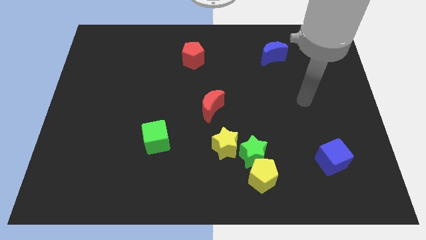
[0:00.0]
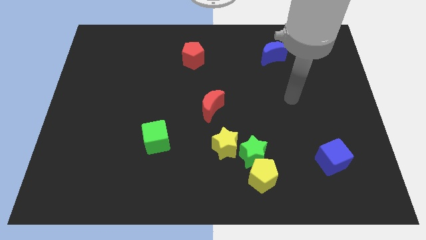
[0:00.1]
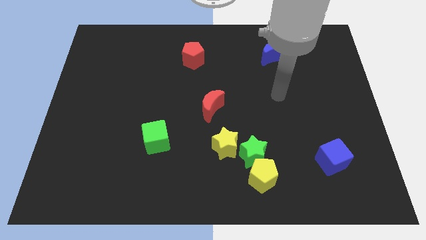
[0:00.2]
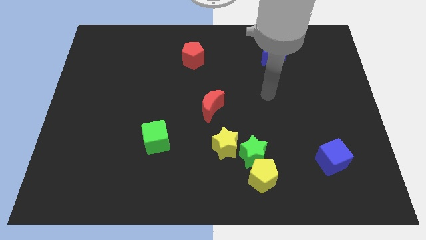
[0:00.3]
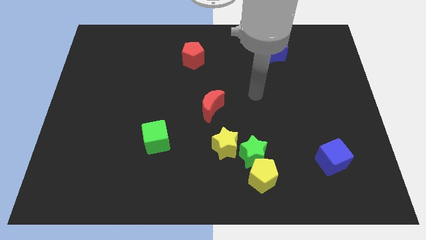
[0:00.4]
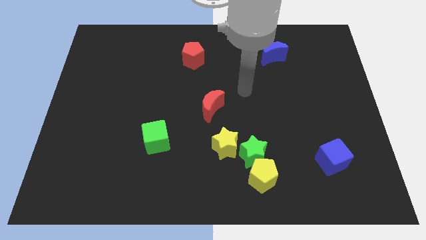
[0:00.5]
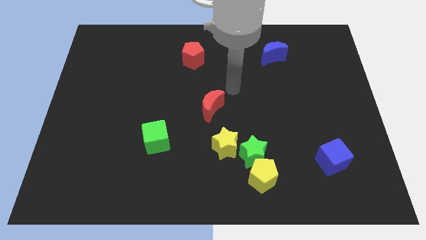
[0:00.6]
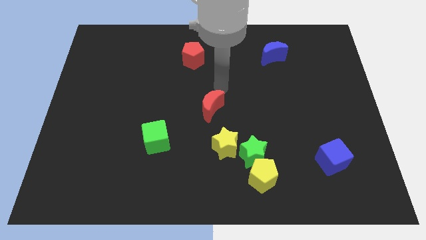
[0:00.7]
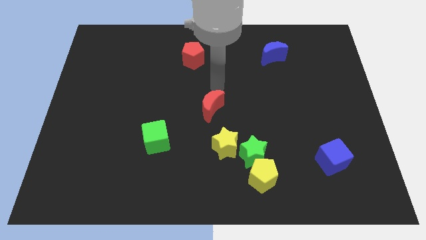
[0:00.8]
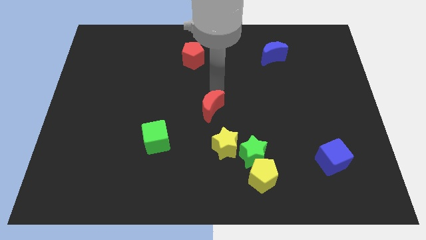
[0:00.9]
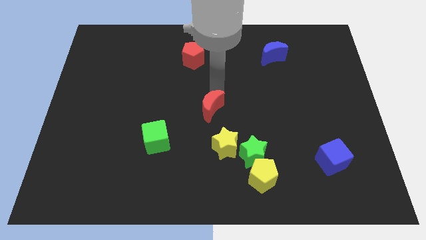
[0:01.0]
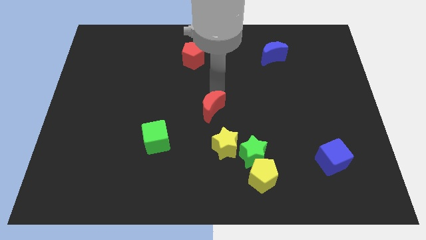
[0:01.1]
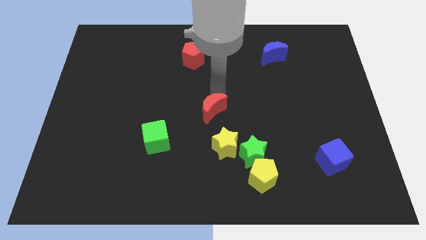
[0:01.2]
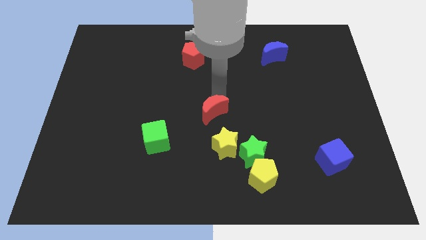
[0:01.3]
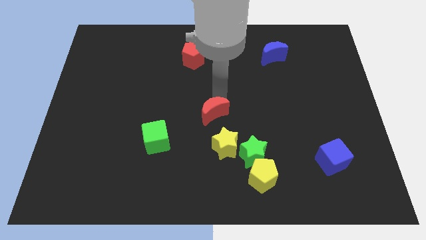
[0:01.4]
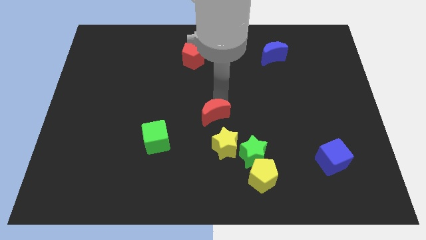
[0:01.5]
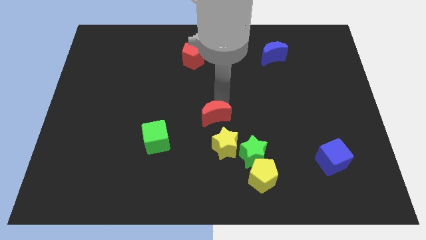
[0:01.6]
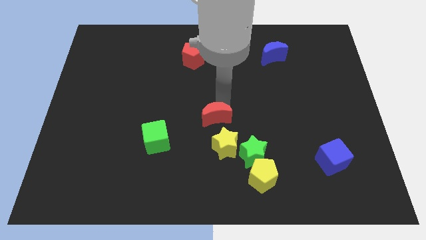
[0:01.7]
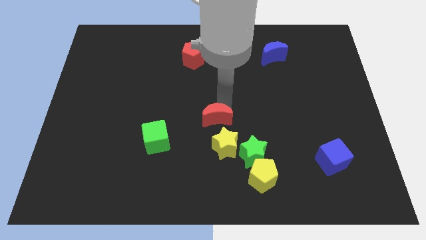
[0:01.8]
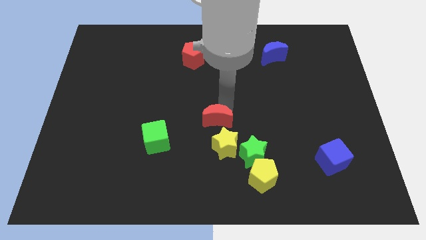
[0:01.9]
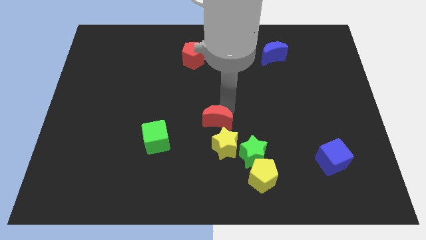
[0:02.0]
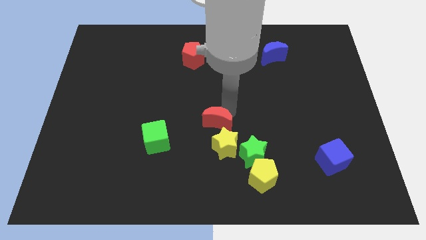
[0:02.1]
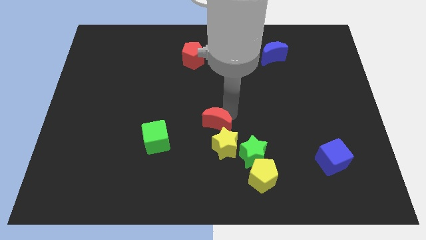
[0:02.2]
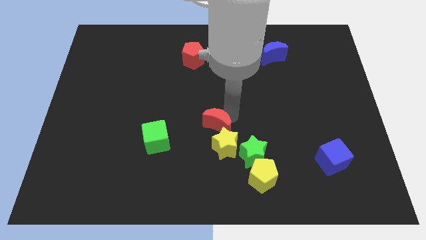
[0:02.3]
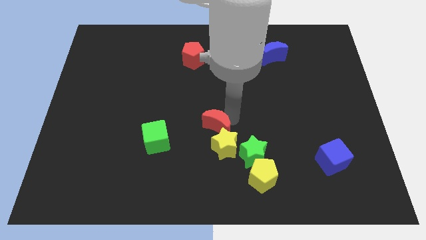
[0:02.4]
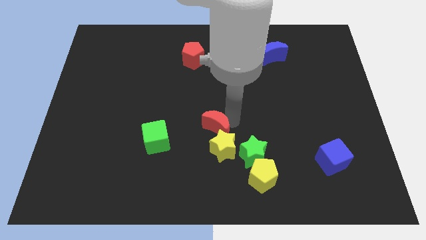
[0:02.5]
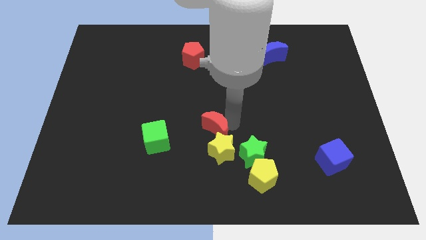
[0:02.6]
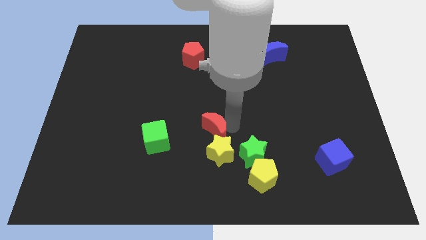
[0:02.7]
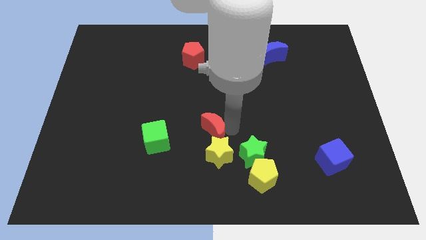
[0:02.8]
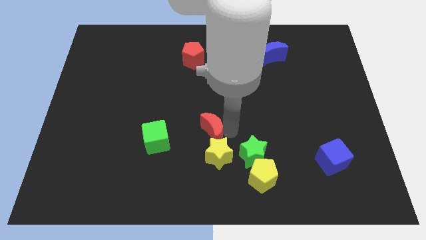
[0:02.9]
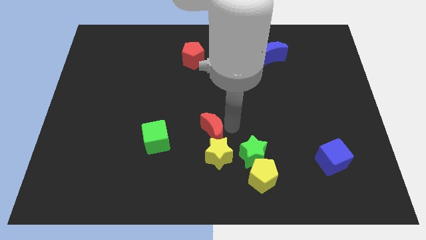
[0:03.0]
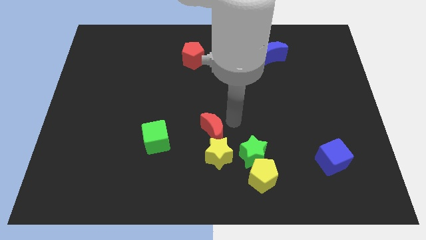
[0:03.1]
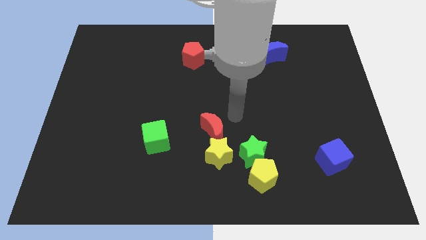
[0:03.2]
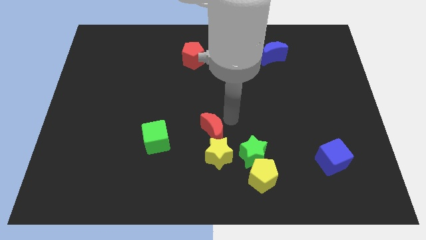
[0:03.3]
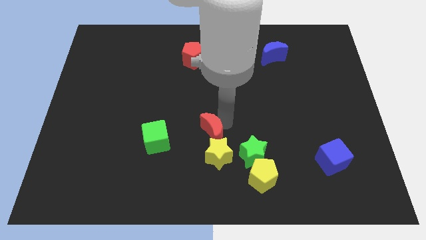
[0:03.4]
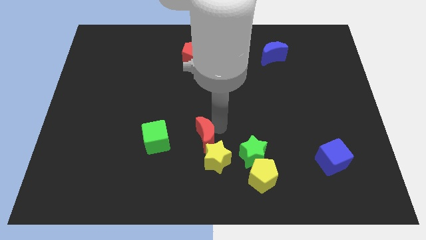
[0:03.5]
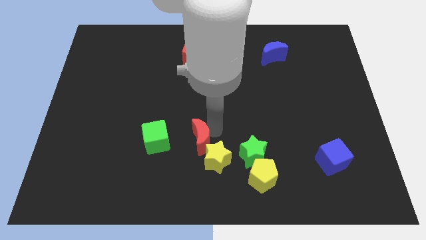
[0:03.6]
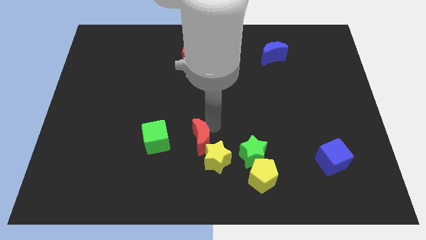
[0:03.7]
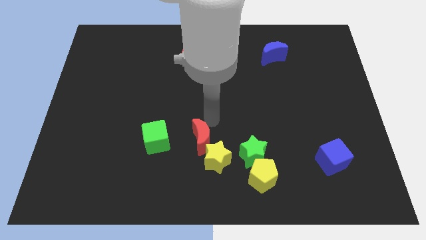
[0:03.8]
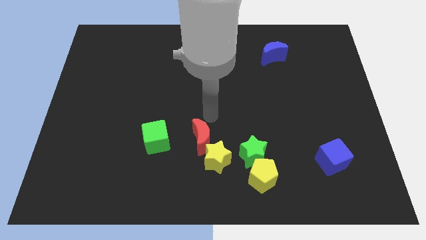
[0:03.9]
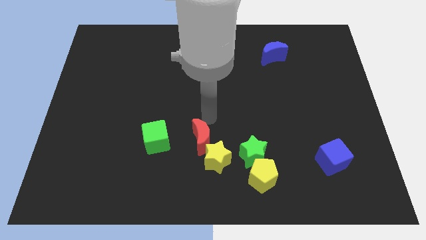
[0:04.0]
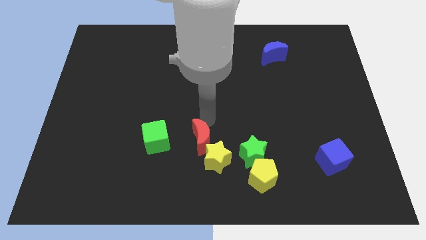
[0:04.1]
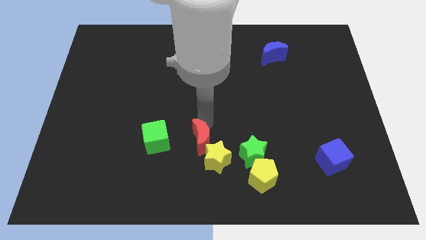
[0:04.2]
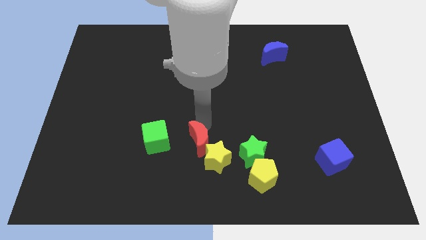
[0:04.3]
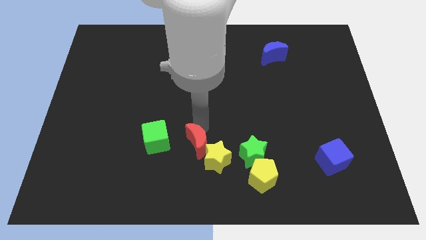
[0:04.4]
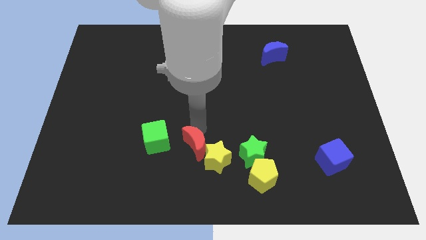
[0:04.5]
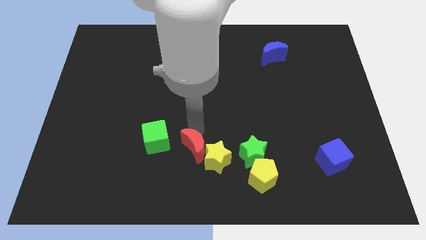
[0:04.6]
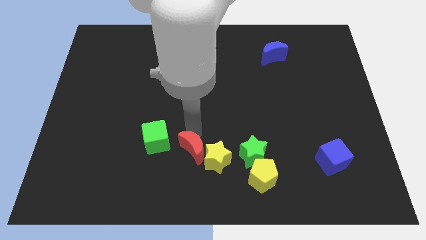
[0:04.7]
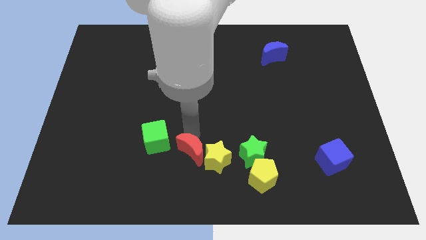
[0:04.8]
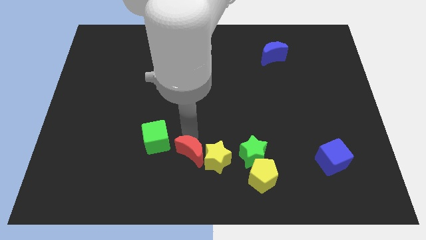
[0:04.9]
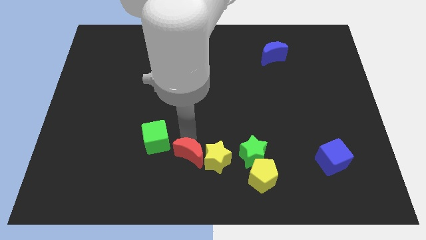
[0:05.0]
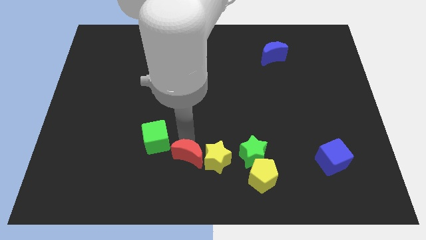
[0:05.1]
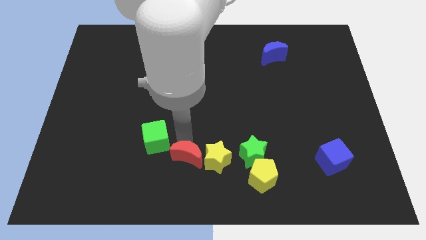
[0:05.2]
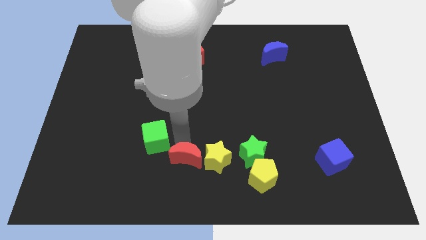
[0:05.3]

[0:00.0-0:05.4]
move the red moon to the bottom

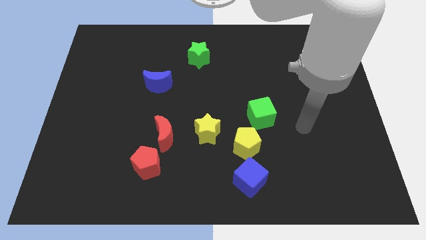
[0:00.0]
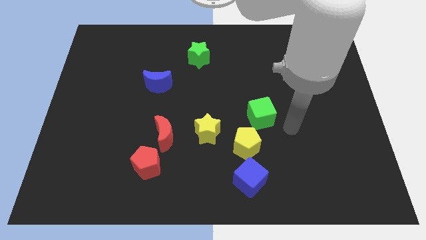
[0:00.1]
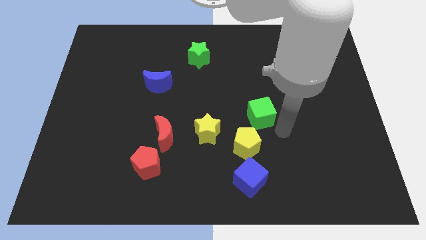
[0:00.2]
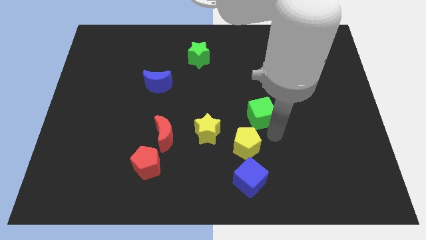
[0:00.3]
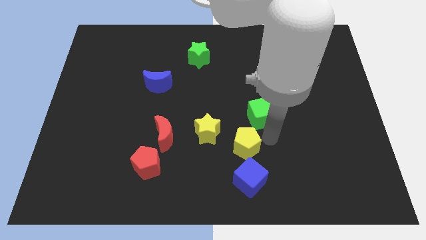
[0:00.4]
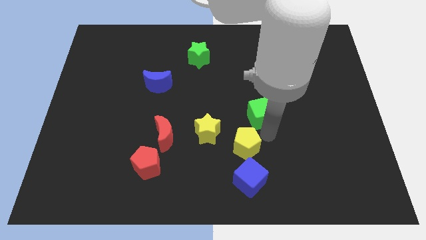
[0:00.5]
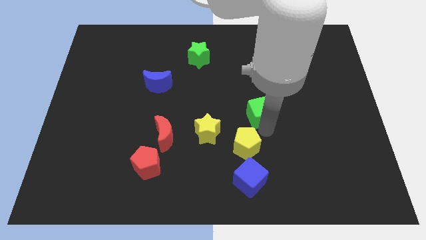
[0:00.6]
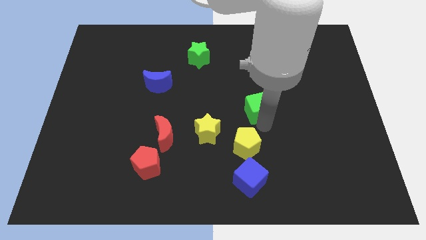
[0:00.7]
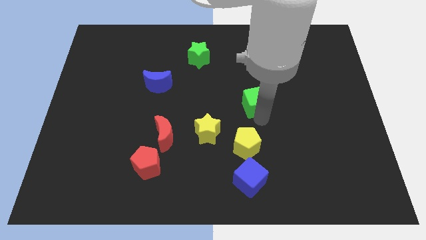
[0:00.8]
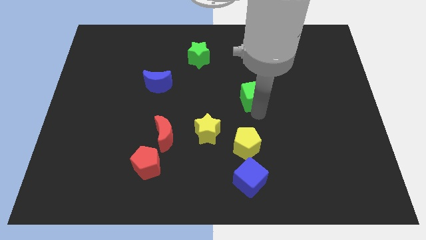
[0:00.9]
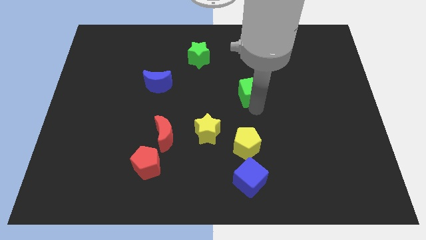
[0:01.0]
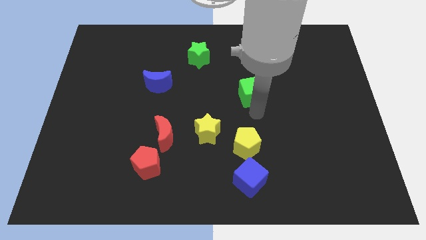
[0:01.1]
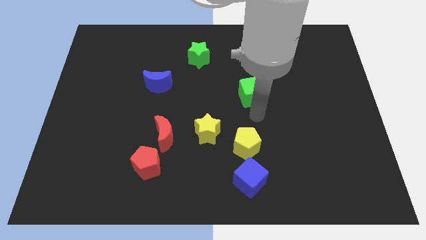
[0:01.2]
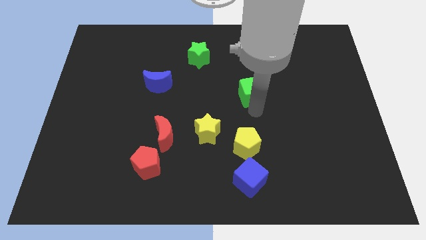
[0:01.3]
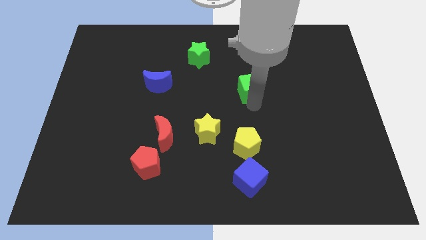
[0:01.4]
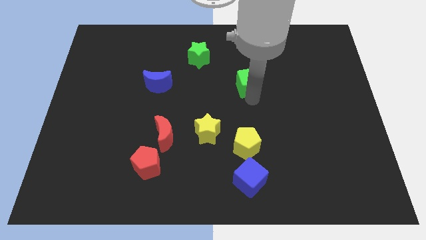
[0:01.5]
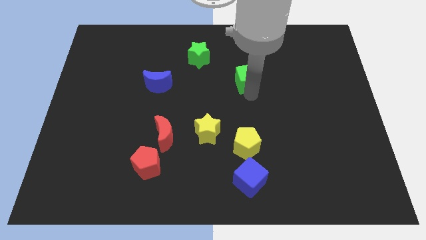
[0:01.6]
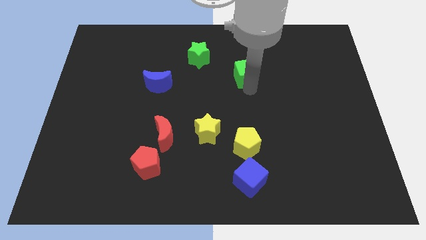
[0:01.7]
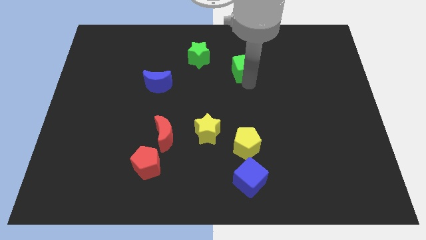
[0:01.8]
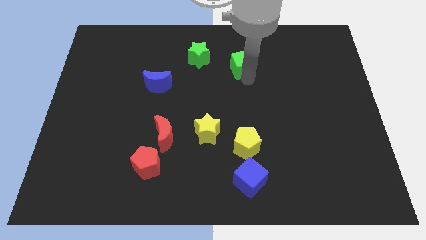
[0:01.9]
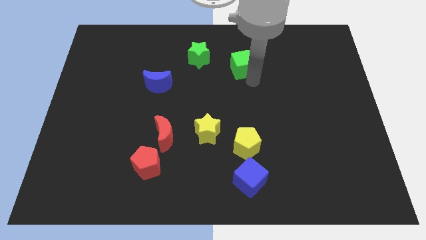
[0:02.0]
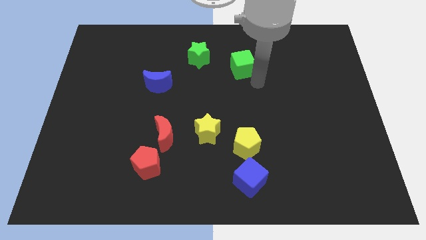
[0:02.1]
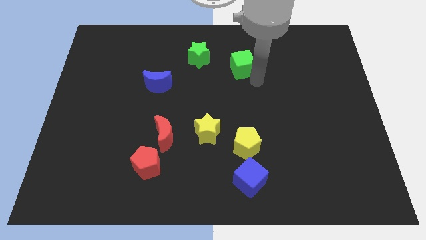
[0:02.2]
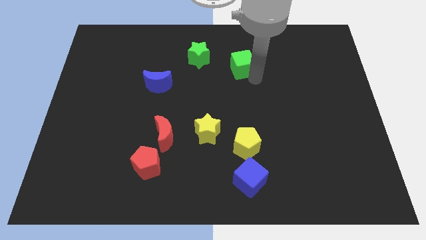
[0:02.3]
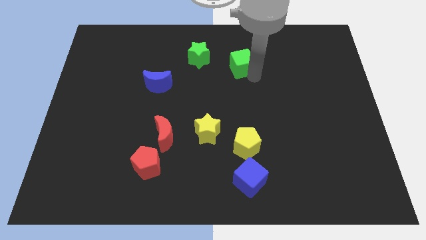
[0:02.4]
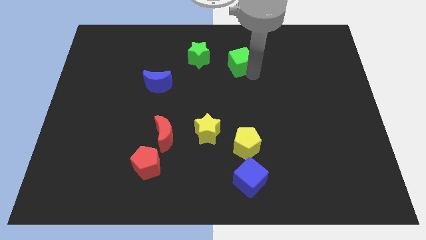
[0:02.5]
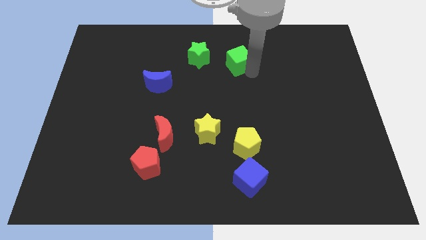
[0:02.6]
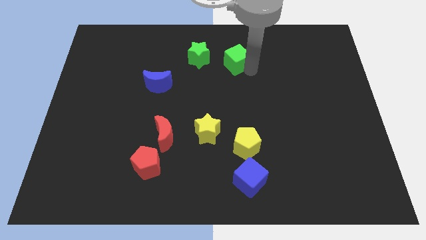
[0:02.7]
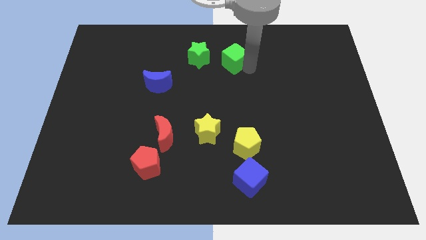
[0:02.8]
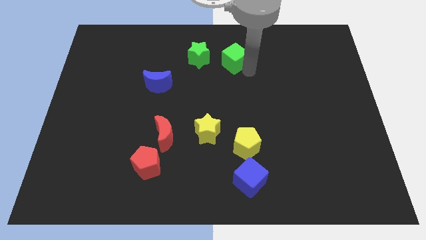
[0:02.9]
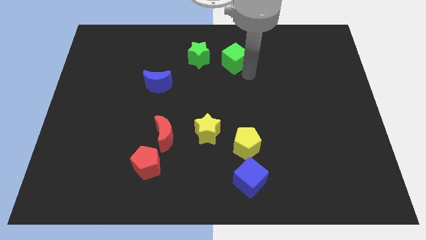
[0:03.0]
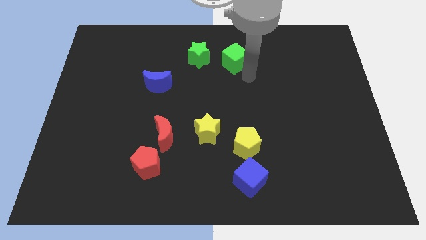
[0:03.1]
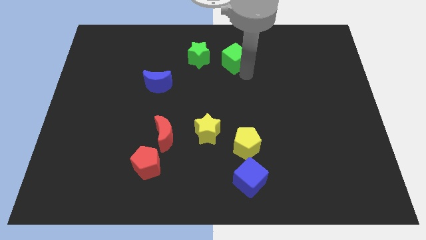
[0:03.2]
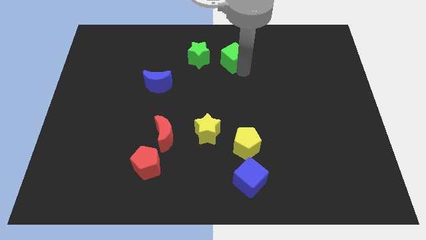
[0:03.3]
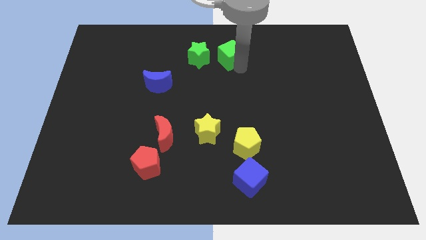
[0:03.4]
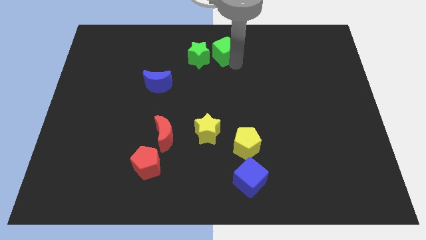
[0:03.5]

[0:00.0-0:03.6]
slide the green cube to the top
